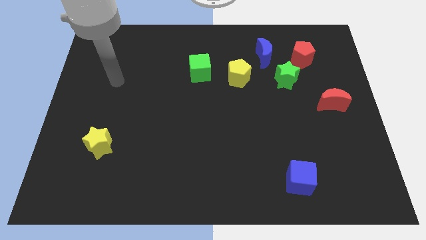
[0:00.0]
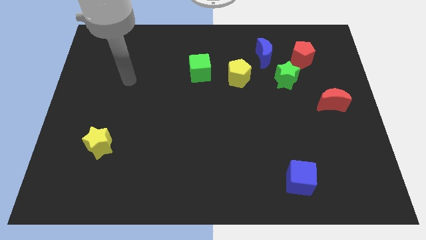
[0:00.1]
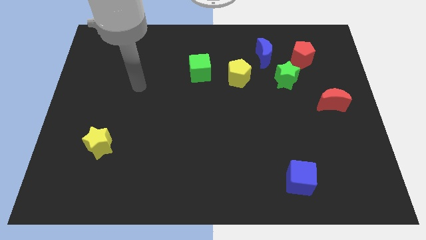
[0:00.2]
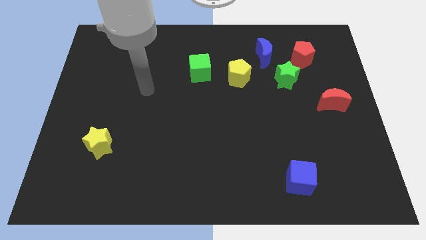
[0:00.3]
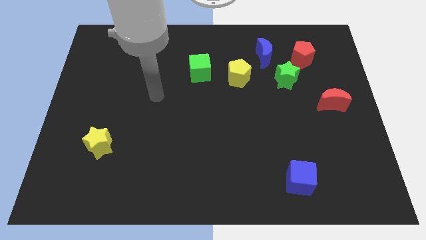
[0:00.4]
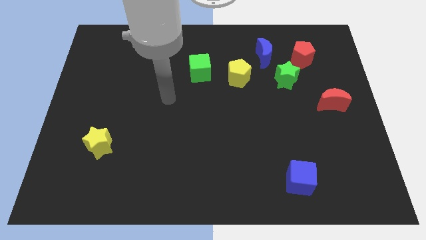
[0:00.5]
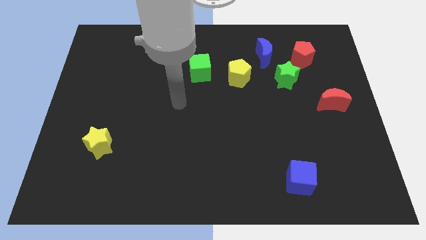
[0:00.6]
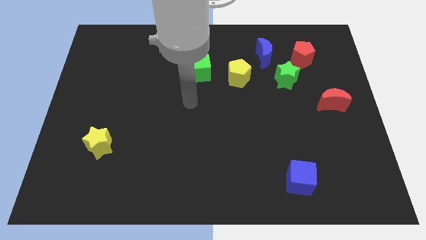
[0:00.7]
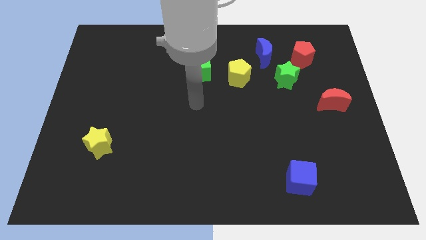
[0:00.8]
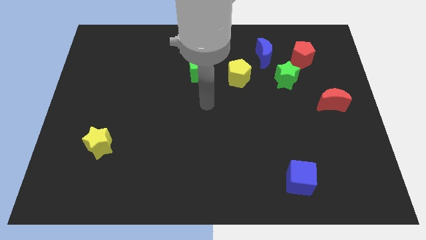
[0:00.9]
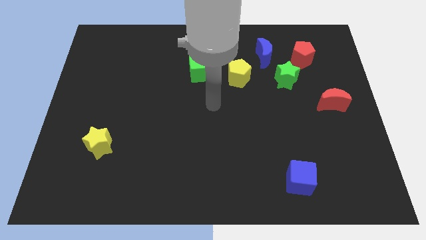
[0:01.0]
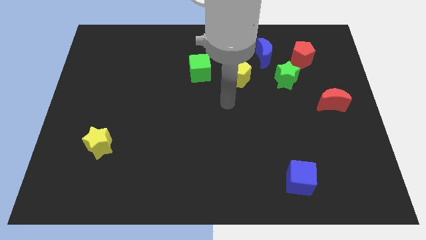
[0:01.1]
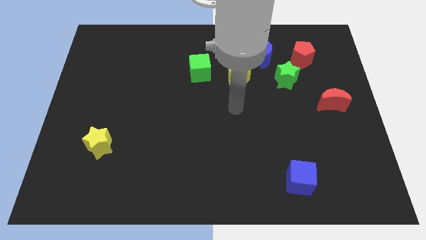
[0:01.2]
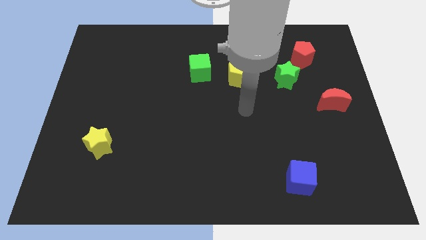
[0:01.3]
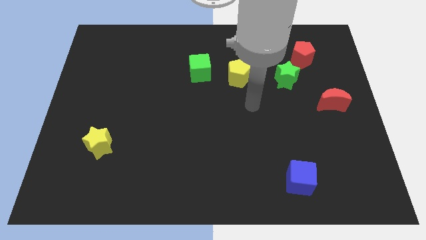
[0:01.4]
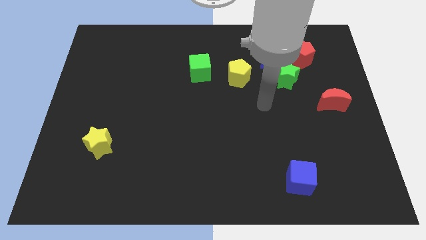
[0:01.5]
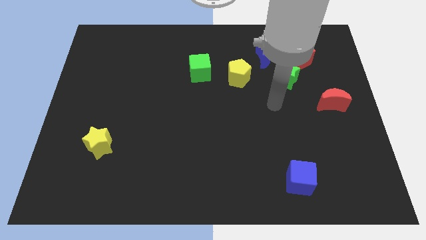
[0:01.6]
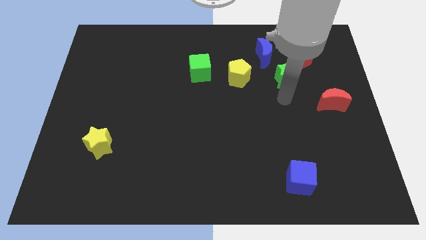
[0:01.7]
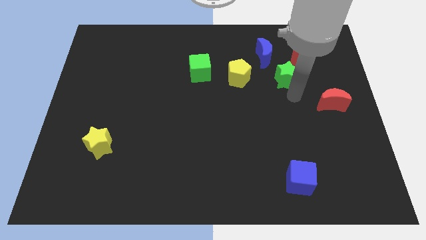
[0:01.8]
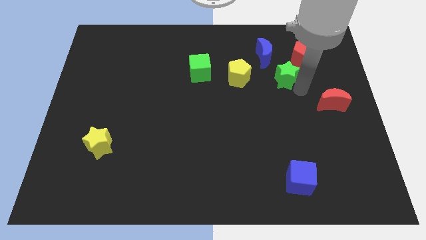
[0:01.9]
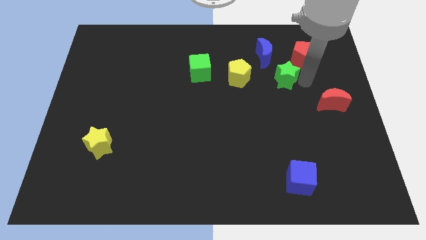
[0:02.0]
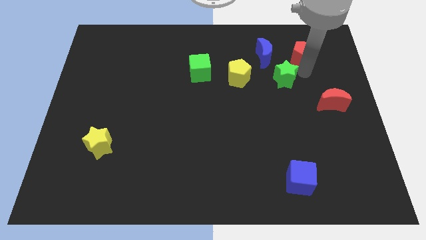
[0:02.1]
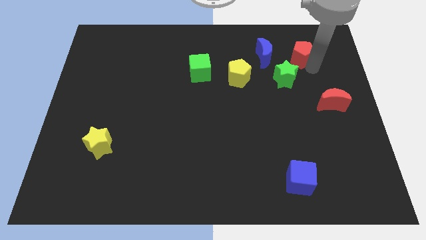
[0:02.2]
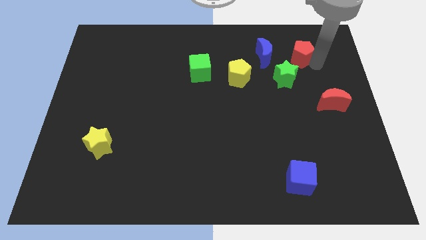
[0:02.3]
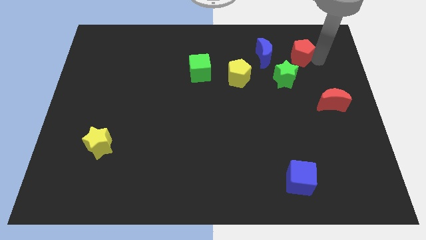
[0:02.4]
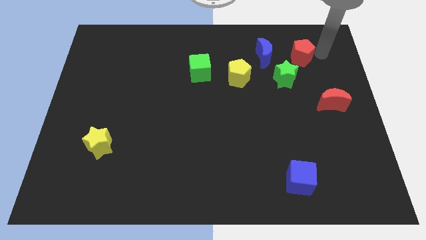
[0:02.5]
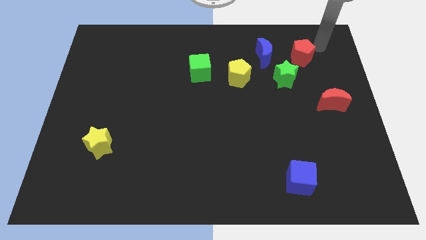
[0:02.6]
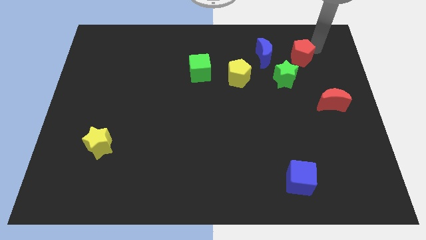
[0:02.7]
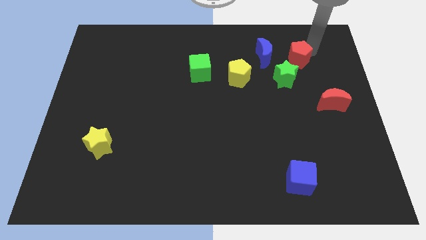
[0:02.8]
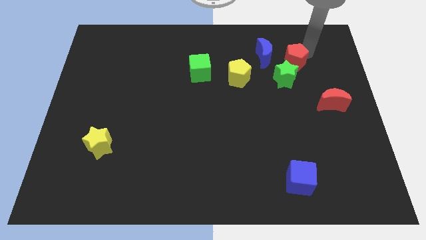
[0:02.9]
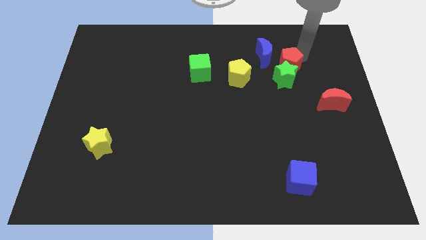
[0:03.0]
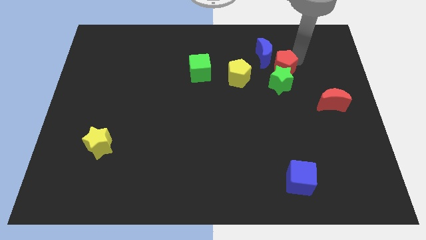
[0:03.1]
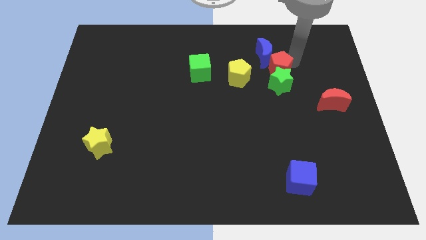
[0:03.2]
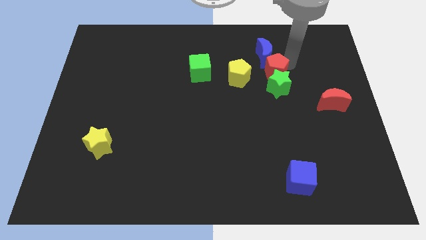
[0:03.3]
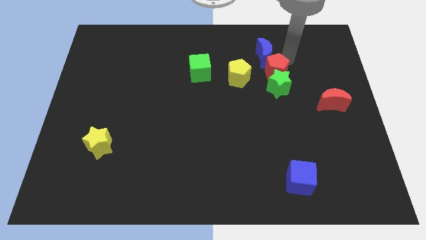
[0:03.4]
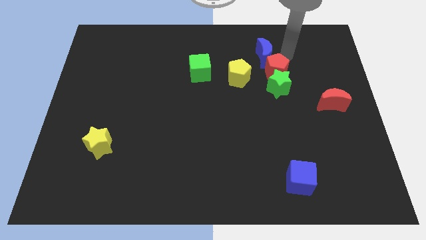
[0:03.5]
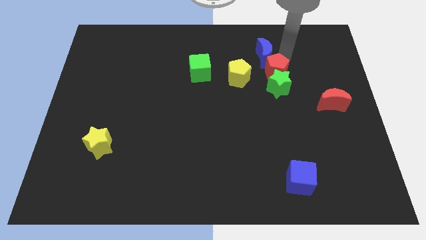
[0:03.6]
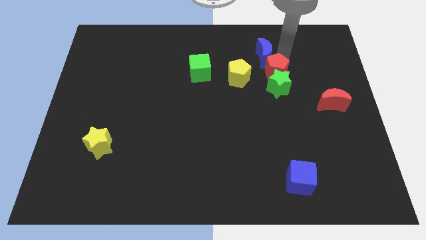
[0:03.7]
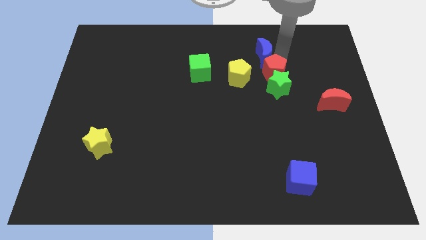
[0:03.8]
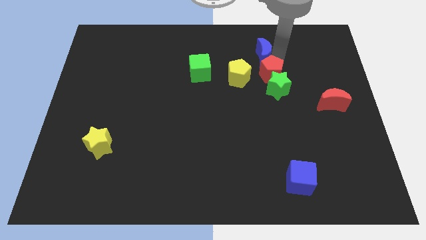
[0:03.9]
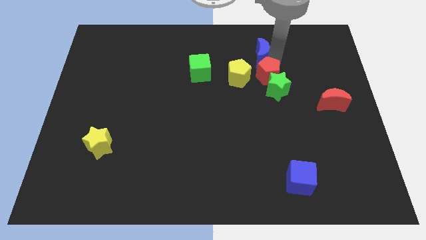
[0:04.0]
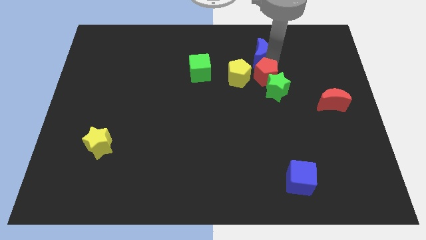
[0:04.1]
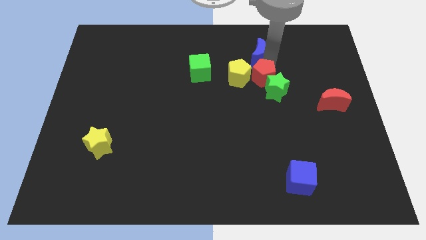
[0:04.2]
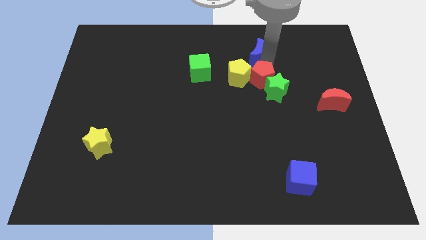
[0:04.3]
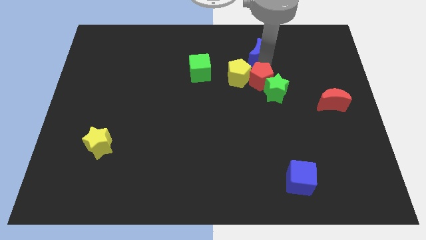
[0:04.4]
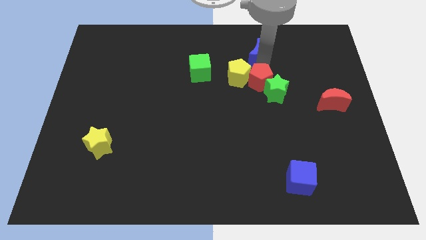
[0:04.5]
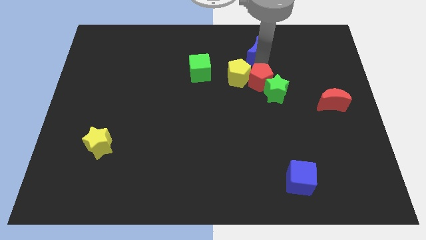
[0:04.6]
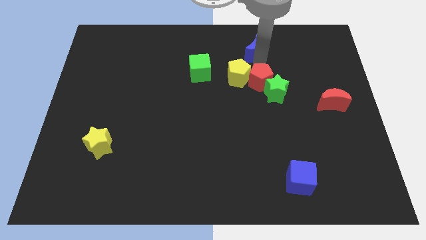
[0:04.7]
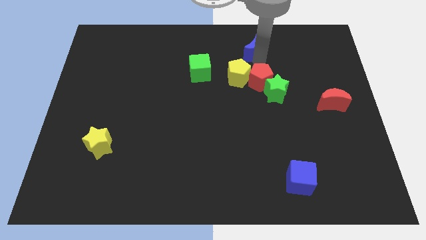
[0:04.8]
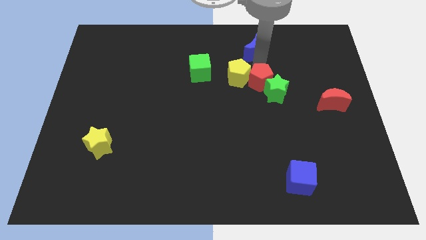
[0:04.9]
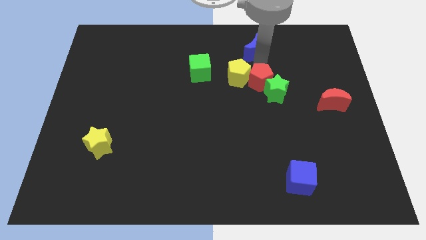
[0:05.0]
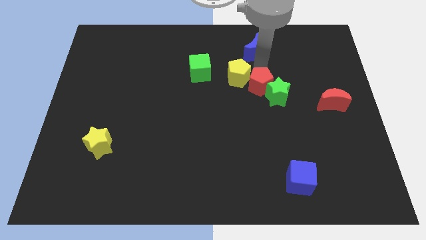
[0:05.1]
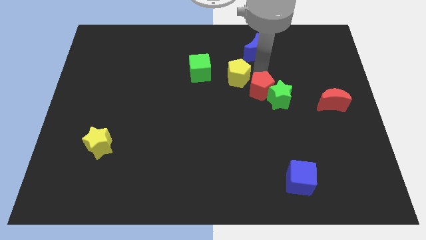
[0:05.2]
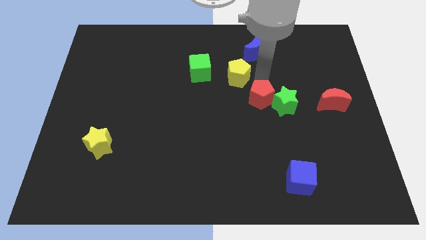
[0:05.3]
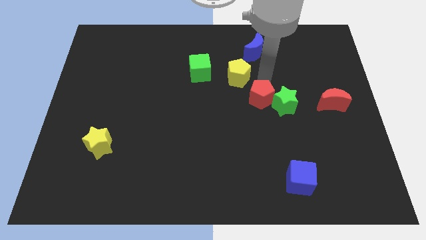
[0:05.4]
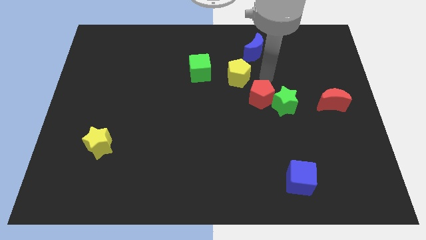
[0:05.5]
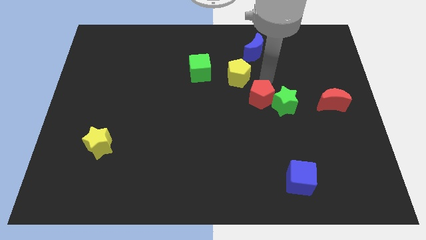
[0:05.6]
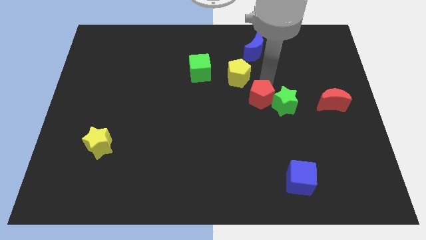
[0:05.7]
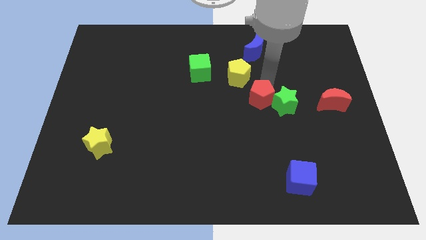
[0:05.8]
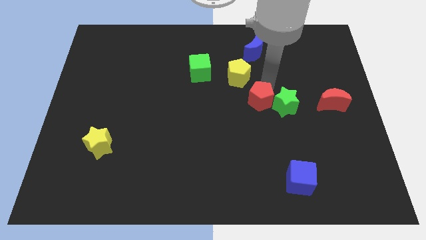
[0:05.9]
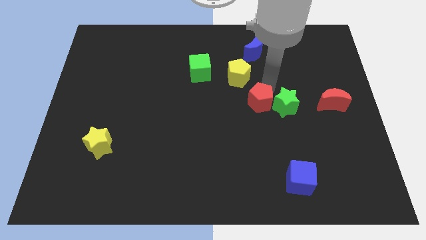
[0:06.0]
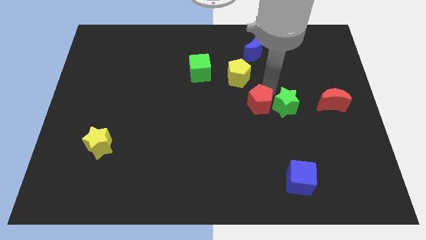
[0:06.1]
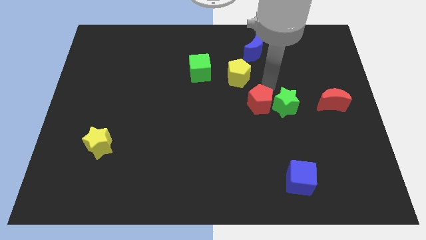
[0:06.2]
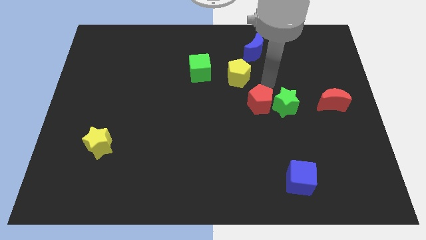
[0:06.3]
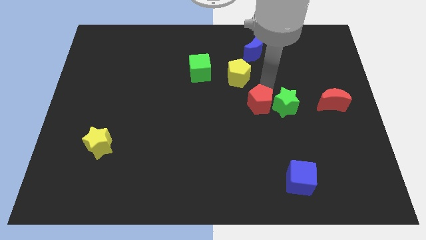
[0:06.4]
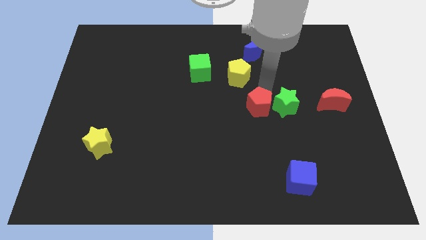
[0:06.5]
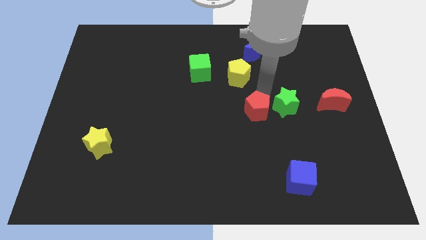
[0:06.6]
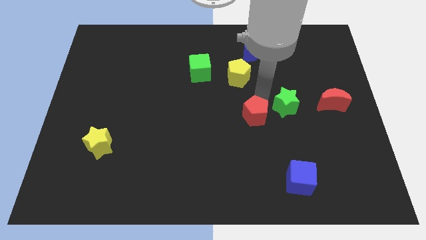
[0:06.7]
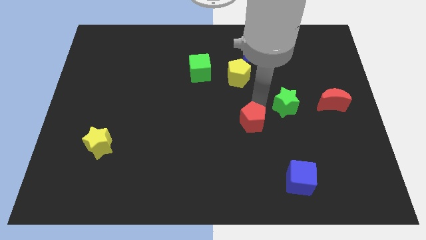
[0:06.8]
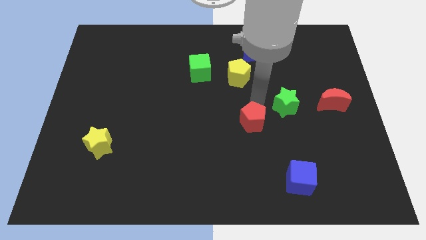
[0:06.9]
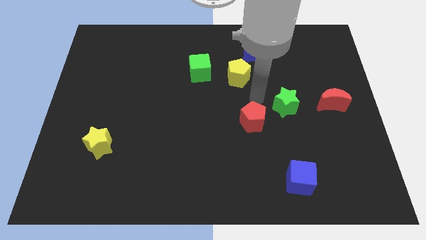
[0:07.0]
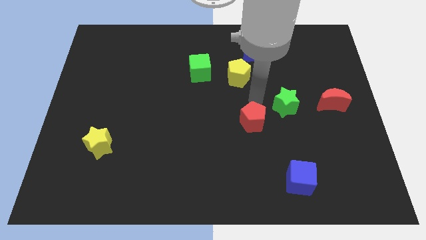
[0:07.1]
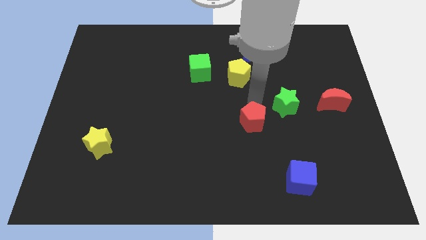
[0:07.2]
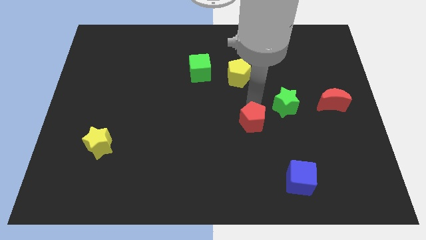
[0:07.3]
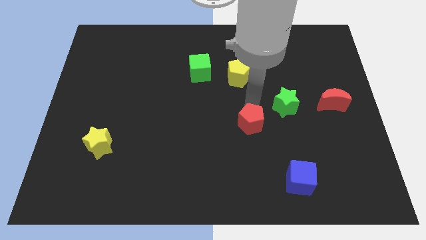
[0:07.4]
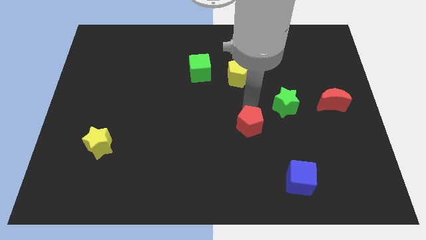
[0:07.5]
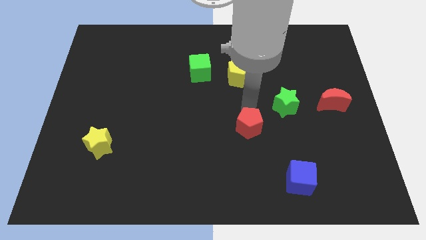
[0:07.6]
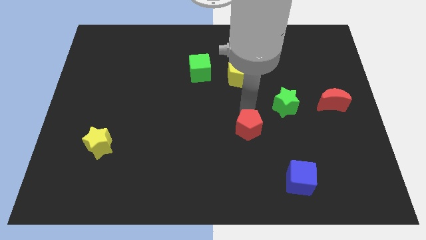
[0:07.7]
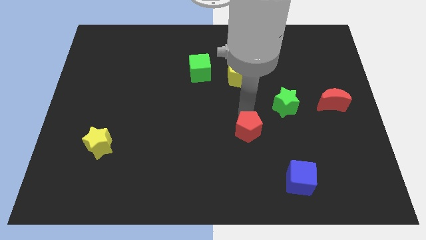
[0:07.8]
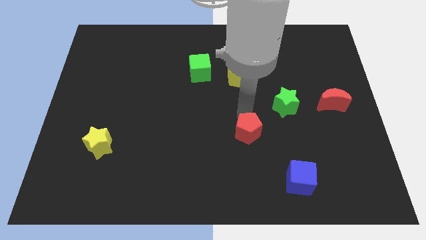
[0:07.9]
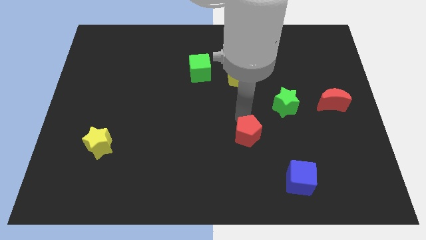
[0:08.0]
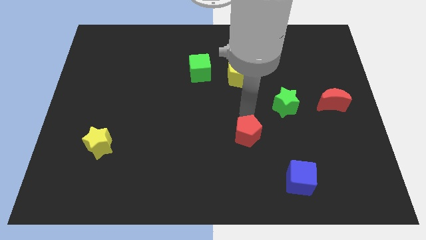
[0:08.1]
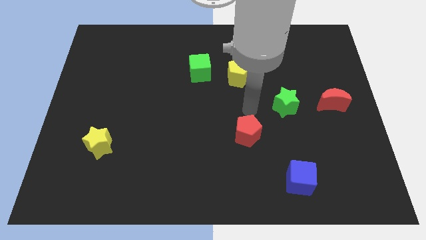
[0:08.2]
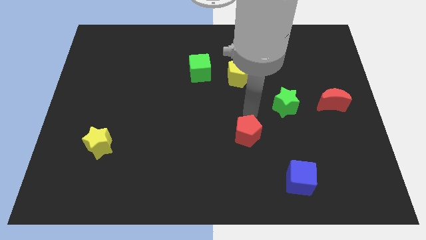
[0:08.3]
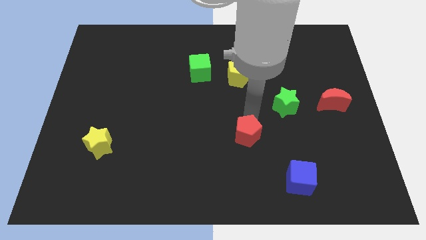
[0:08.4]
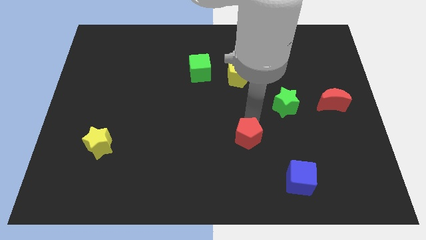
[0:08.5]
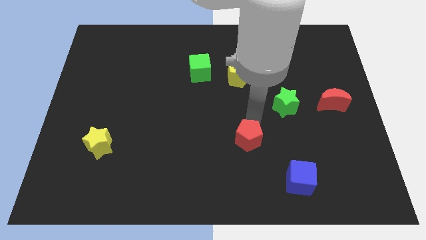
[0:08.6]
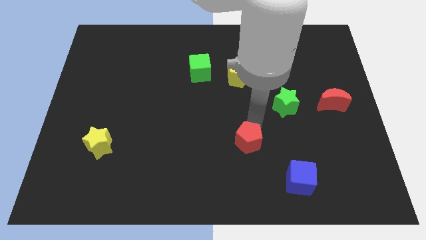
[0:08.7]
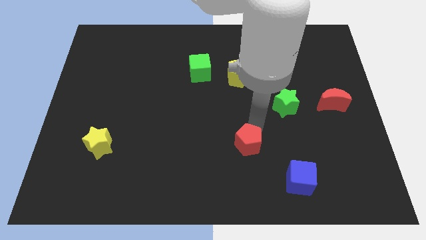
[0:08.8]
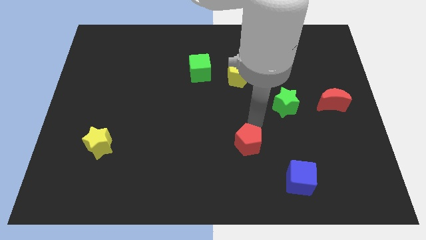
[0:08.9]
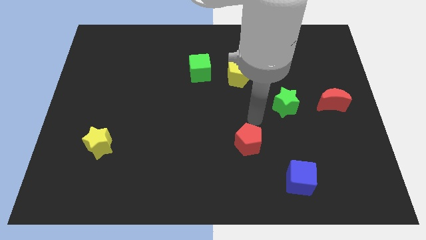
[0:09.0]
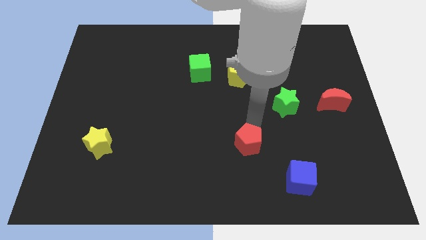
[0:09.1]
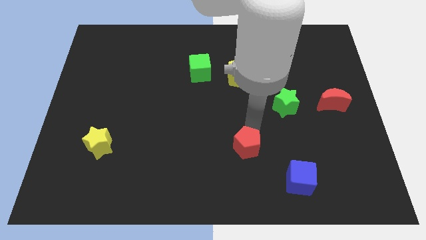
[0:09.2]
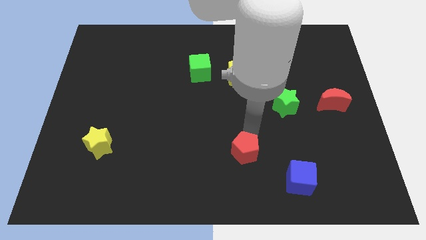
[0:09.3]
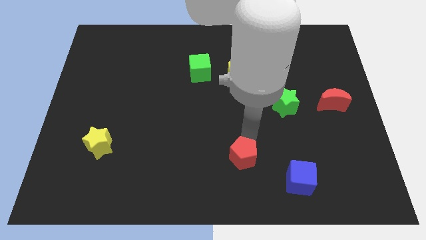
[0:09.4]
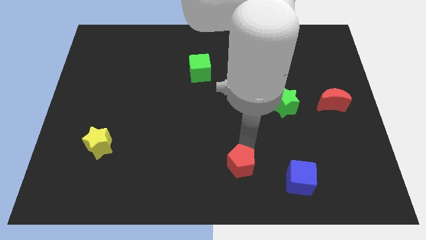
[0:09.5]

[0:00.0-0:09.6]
move the red pentagon to the bottom
